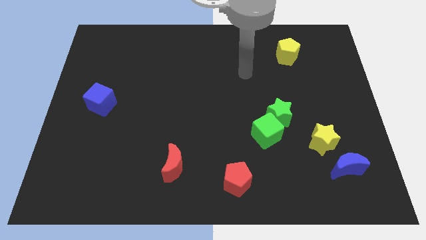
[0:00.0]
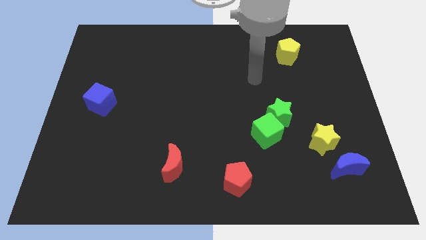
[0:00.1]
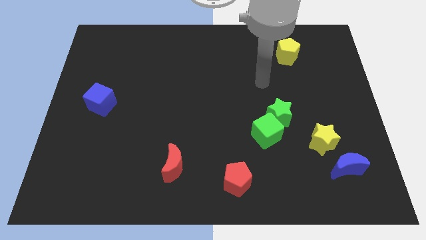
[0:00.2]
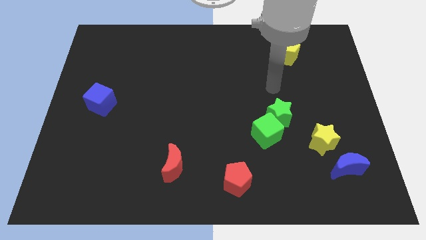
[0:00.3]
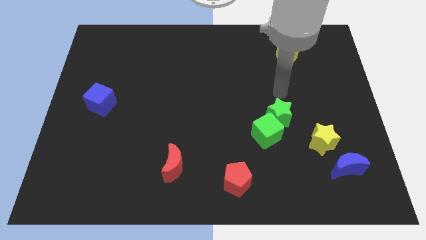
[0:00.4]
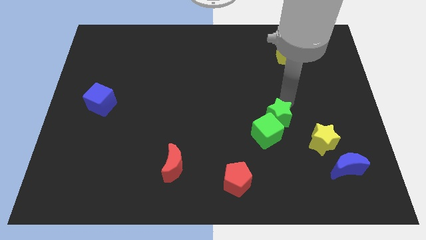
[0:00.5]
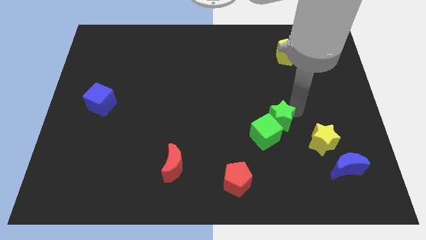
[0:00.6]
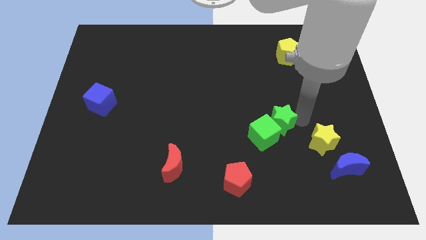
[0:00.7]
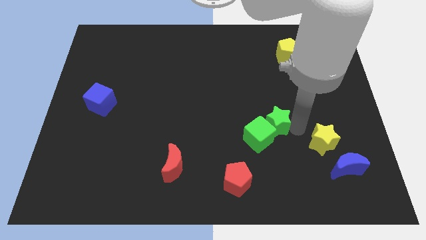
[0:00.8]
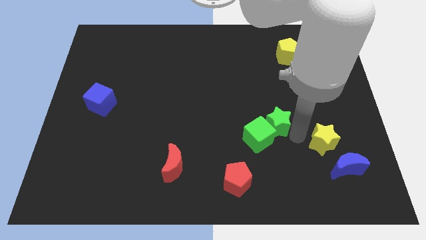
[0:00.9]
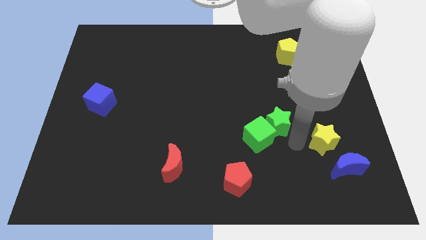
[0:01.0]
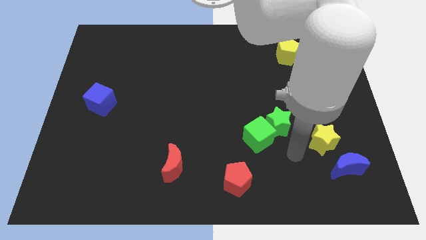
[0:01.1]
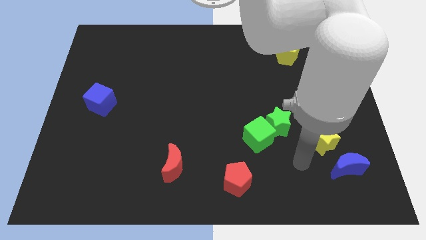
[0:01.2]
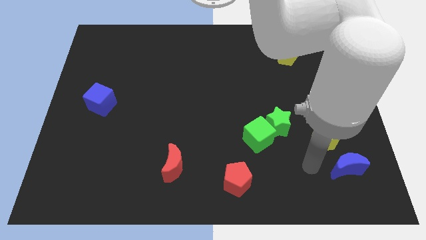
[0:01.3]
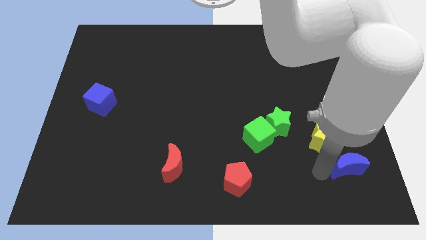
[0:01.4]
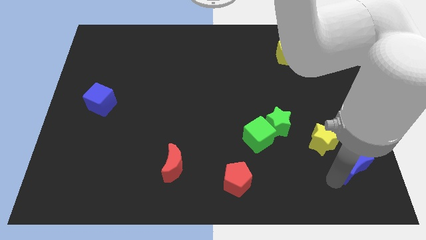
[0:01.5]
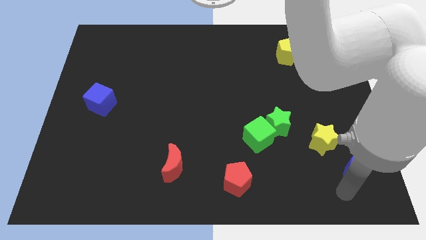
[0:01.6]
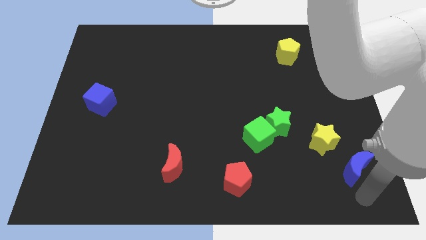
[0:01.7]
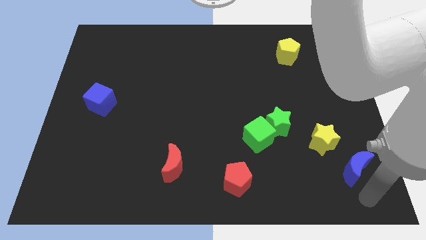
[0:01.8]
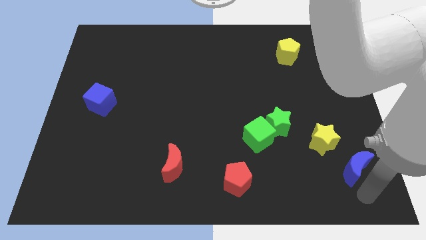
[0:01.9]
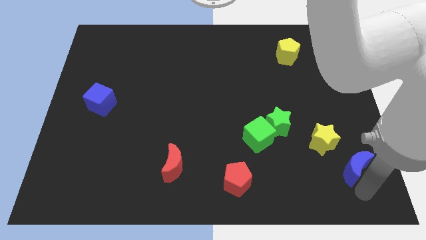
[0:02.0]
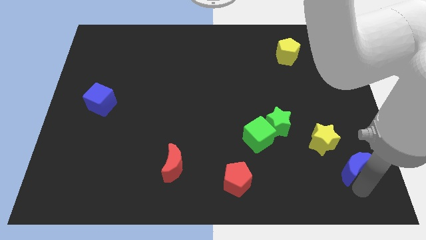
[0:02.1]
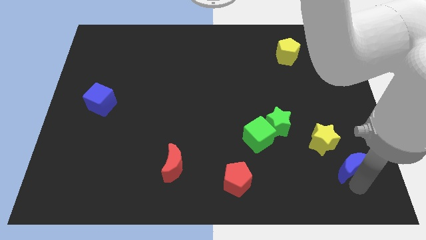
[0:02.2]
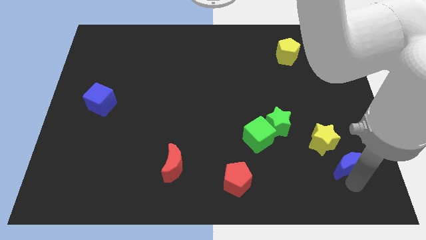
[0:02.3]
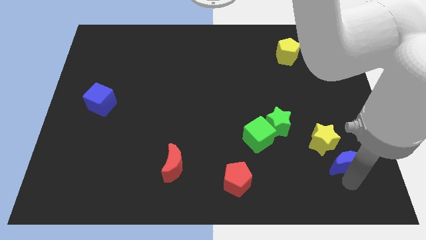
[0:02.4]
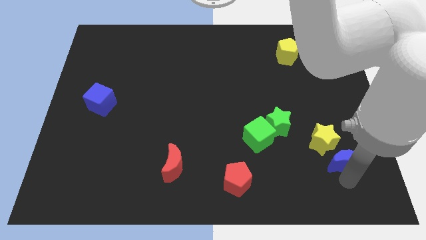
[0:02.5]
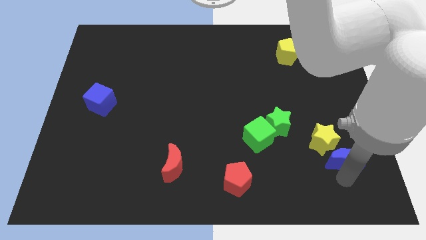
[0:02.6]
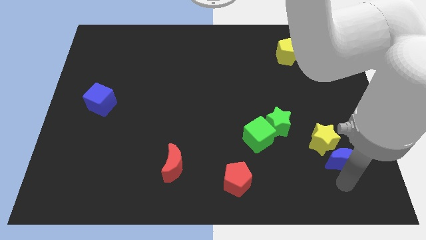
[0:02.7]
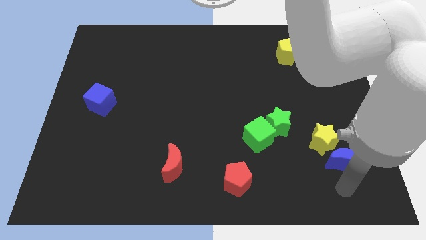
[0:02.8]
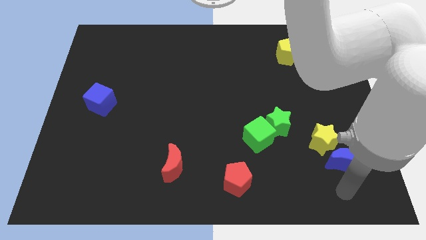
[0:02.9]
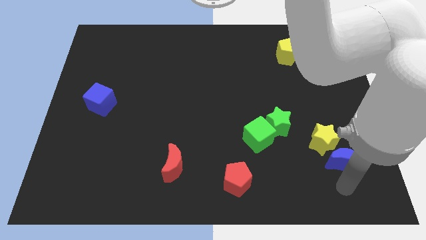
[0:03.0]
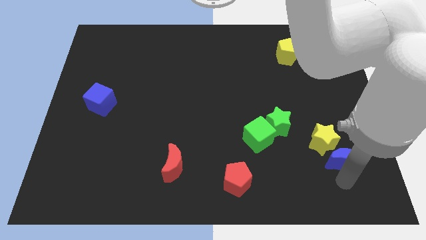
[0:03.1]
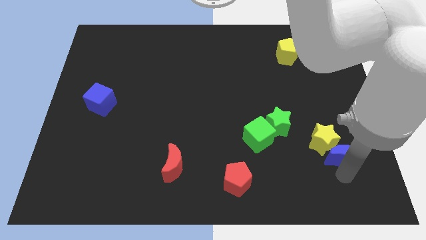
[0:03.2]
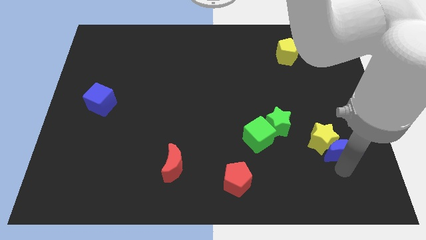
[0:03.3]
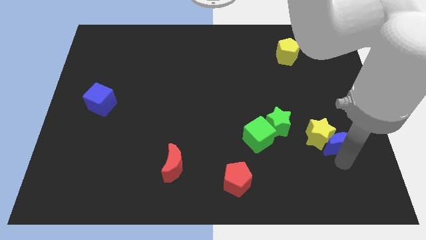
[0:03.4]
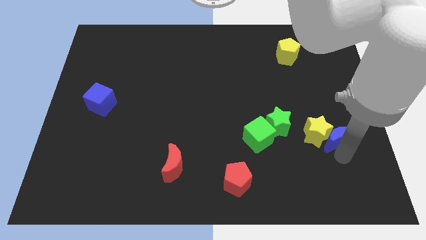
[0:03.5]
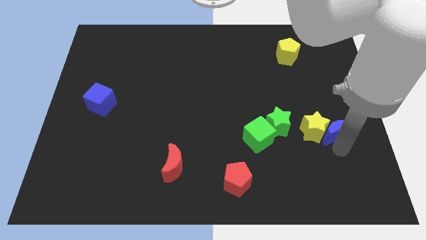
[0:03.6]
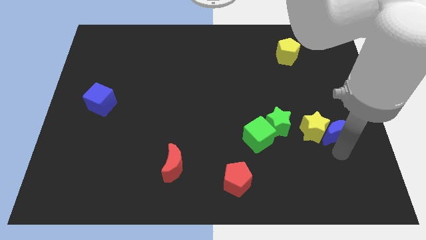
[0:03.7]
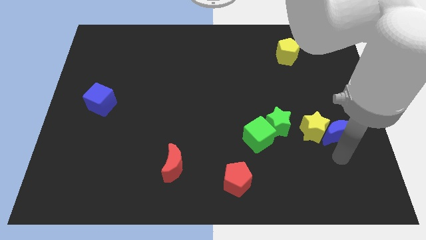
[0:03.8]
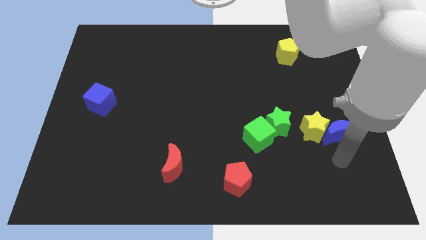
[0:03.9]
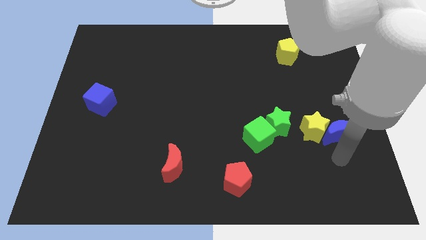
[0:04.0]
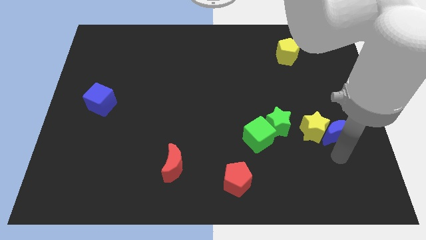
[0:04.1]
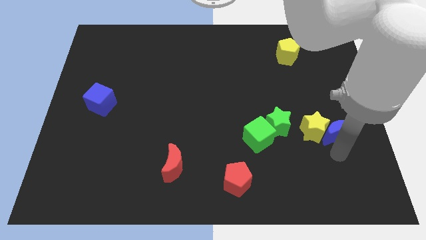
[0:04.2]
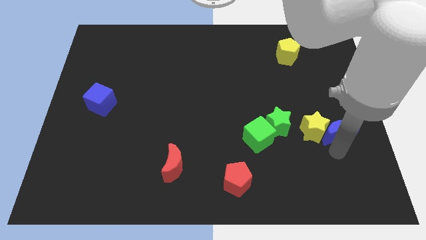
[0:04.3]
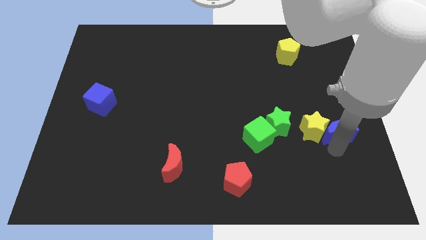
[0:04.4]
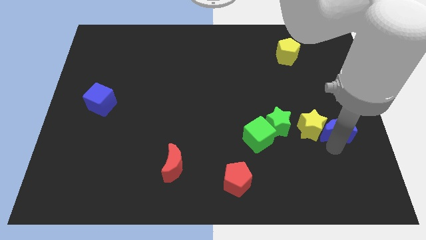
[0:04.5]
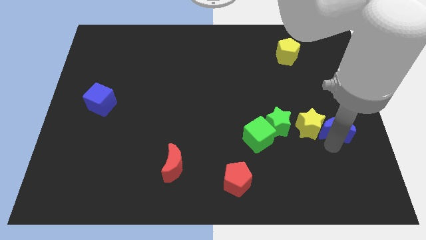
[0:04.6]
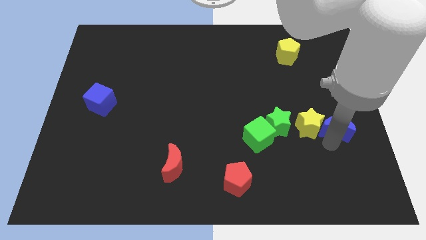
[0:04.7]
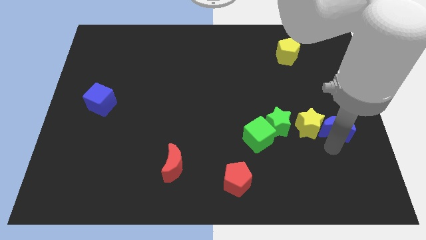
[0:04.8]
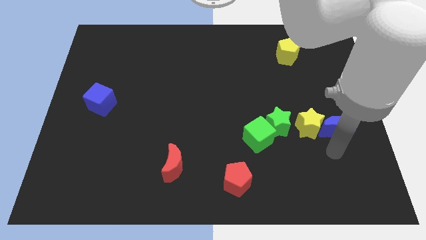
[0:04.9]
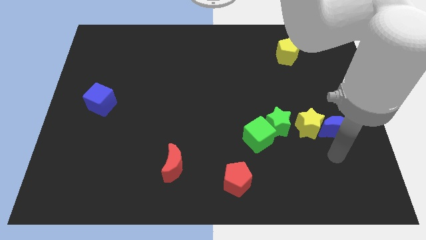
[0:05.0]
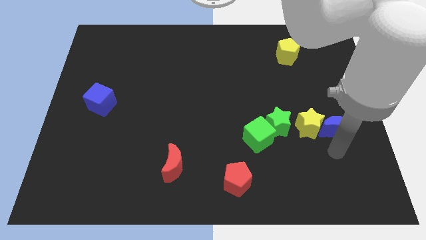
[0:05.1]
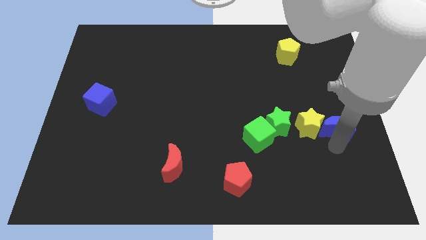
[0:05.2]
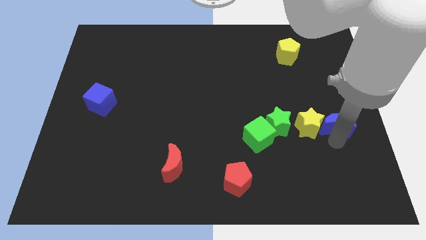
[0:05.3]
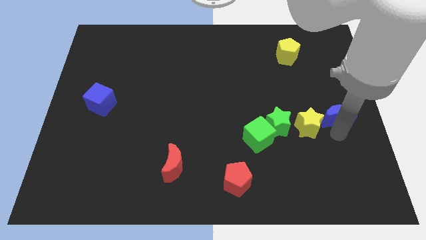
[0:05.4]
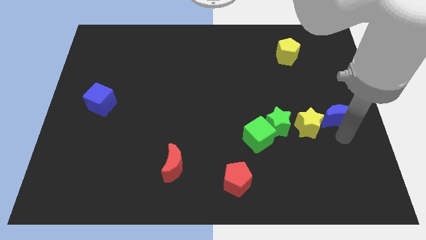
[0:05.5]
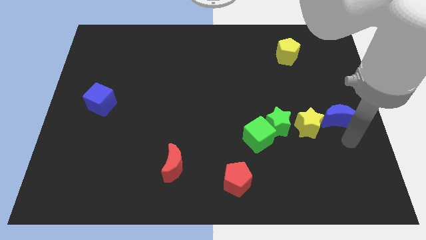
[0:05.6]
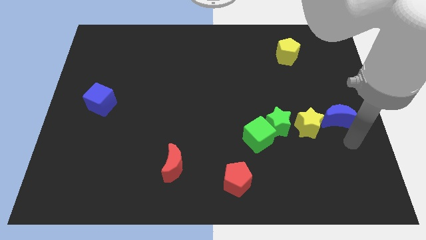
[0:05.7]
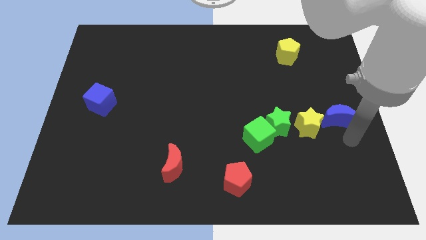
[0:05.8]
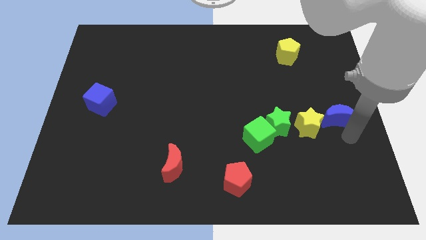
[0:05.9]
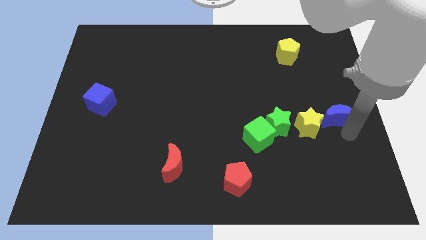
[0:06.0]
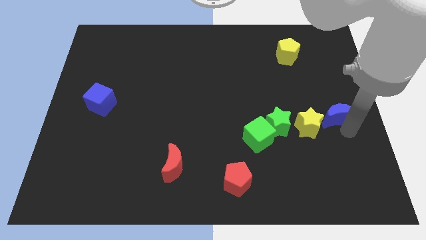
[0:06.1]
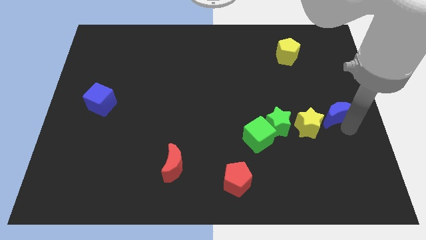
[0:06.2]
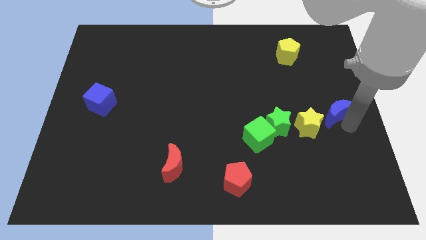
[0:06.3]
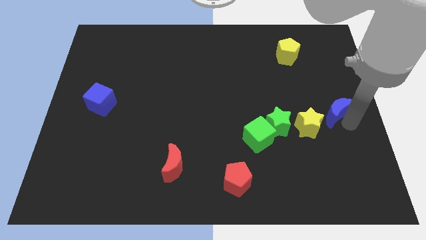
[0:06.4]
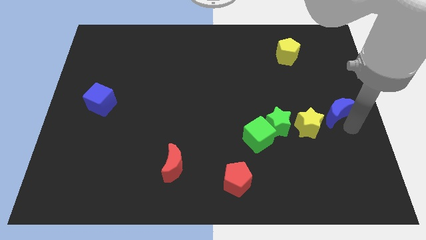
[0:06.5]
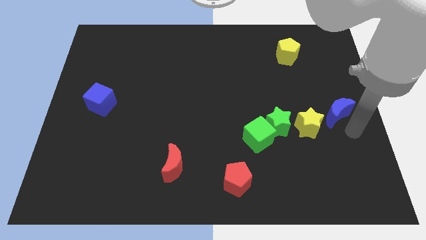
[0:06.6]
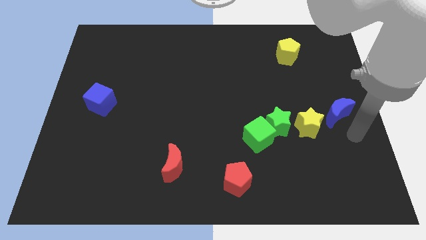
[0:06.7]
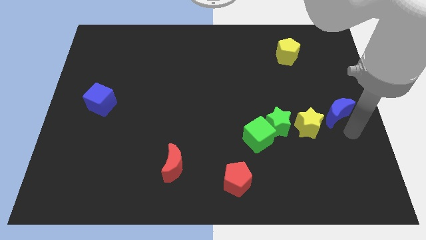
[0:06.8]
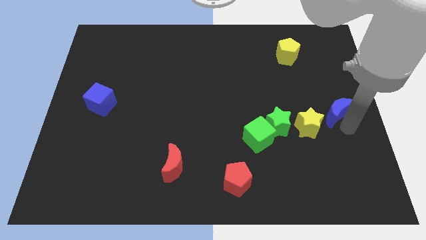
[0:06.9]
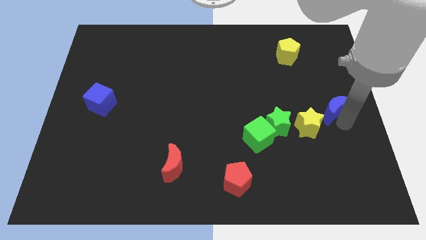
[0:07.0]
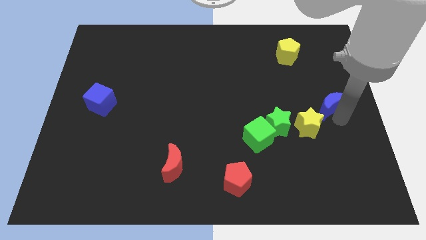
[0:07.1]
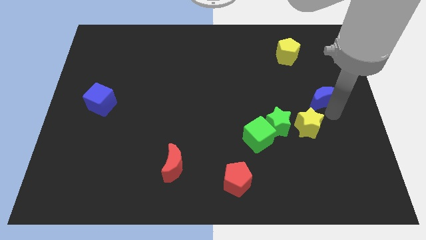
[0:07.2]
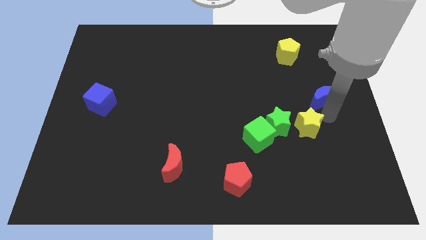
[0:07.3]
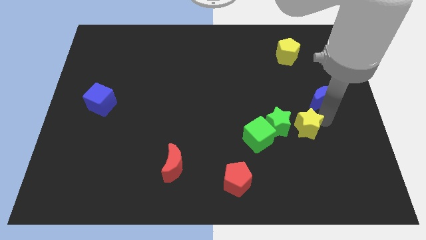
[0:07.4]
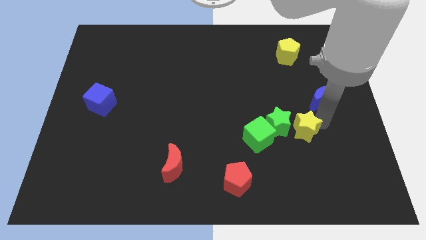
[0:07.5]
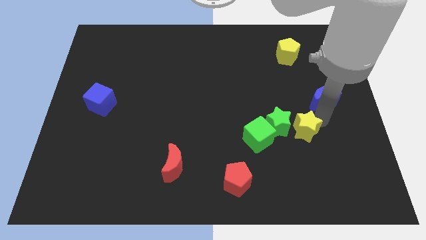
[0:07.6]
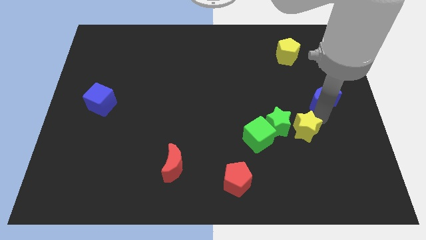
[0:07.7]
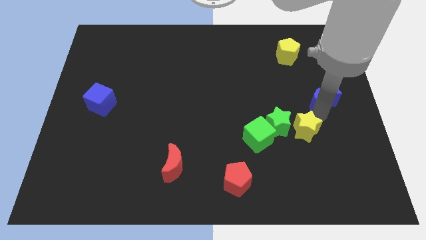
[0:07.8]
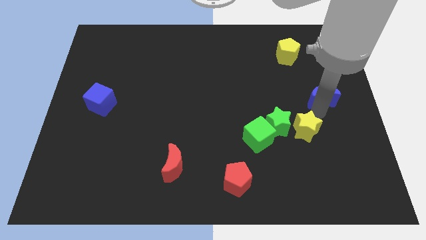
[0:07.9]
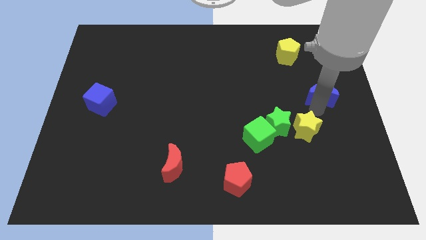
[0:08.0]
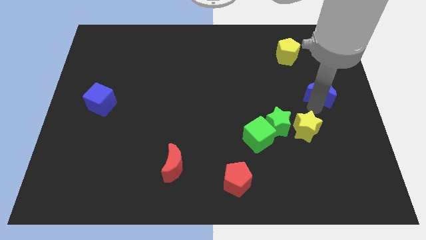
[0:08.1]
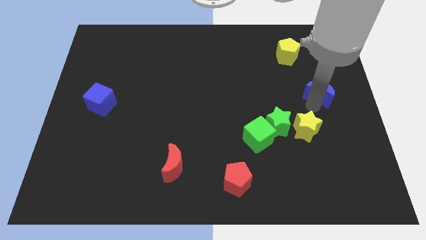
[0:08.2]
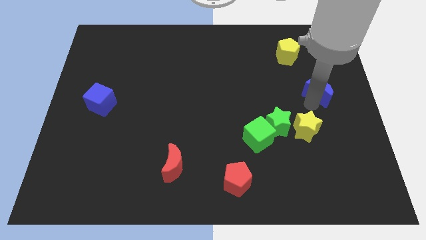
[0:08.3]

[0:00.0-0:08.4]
push the blue moon up
